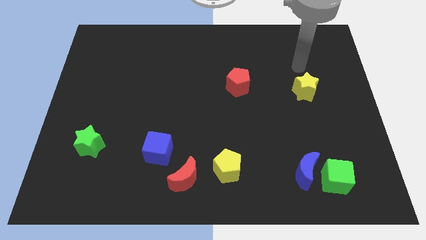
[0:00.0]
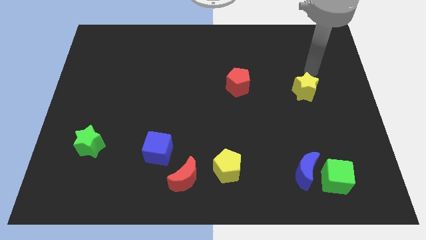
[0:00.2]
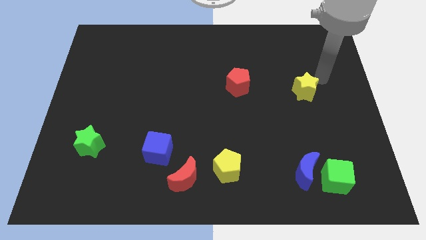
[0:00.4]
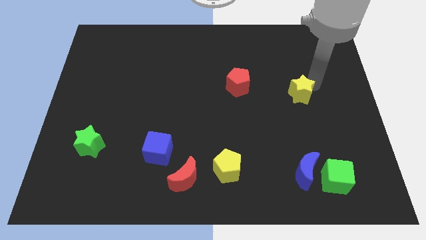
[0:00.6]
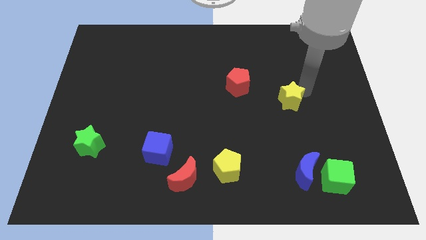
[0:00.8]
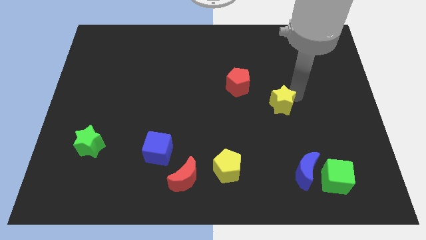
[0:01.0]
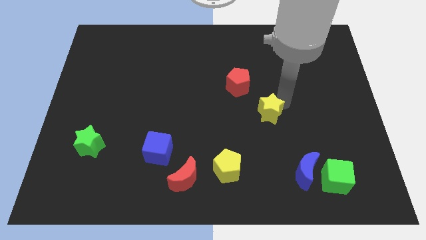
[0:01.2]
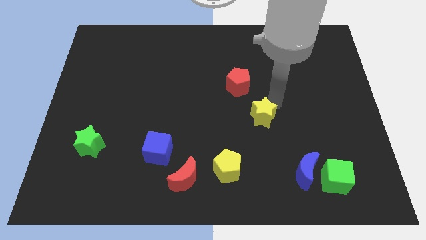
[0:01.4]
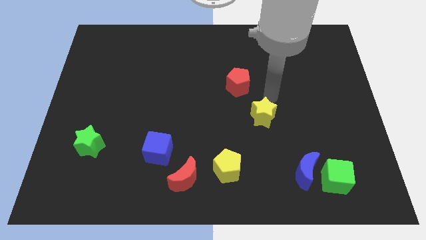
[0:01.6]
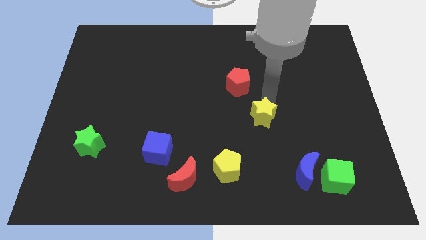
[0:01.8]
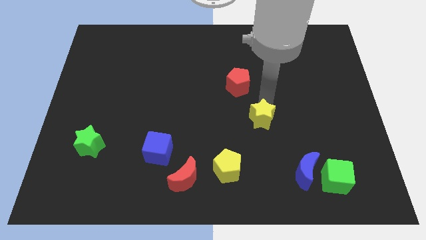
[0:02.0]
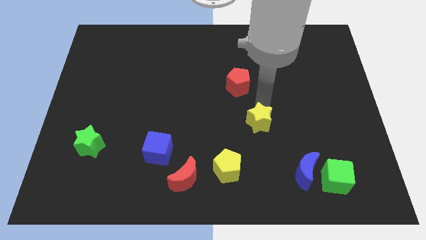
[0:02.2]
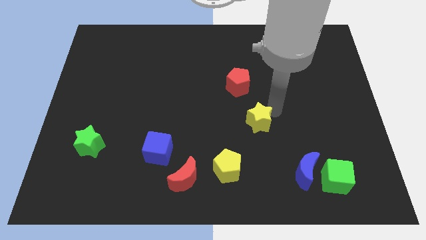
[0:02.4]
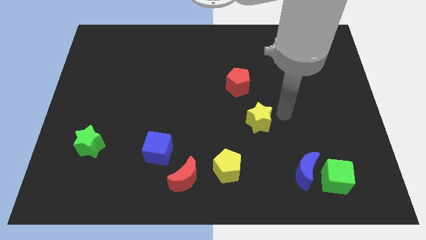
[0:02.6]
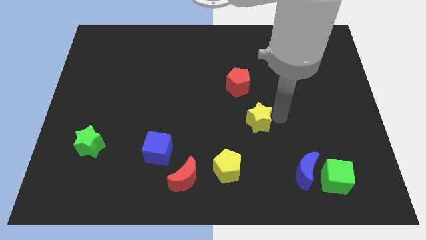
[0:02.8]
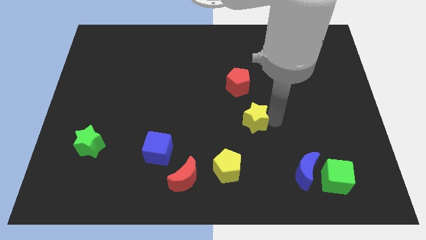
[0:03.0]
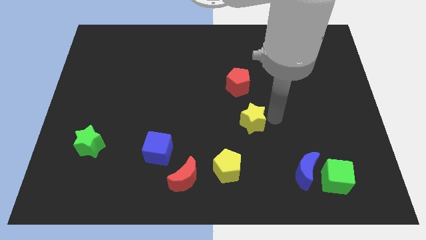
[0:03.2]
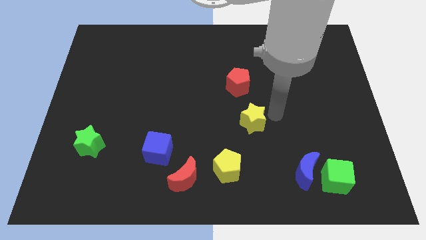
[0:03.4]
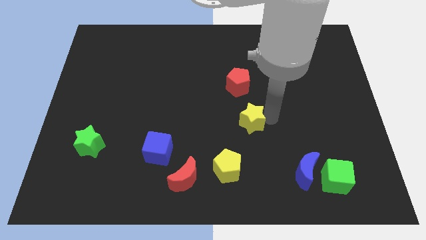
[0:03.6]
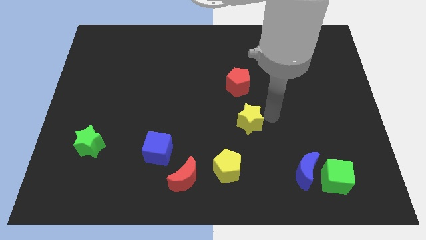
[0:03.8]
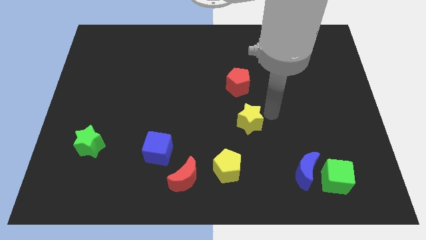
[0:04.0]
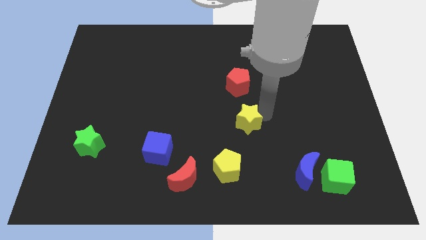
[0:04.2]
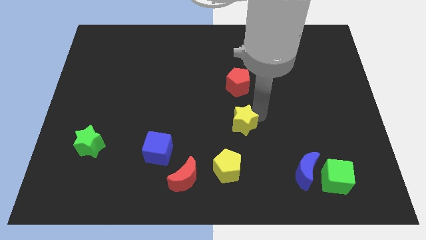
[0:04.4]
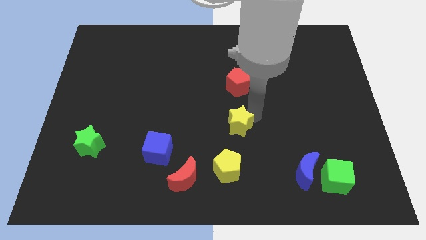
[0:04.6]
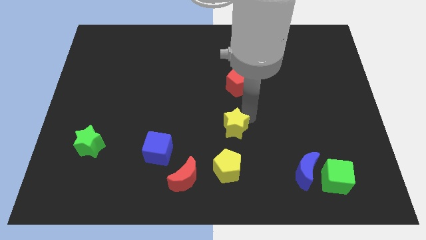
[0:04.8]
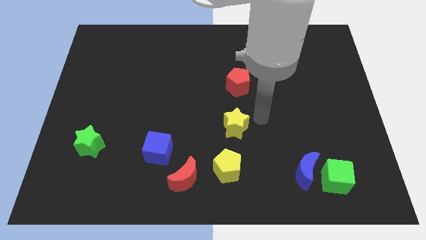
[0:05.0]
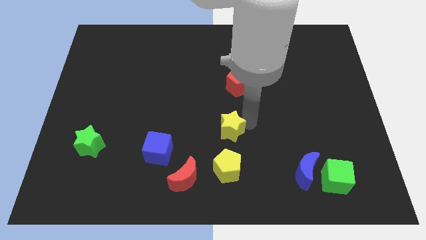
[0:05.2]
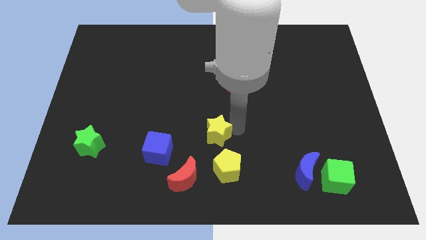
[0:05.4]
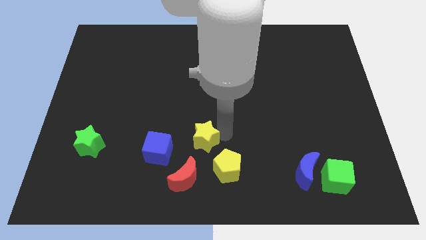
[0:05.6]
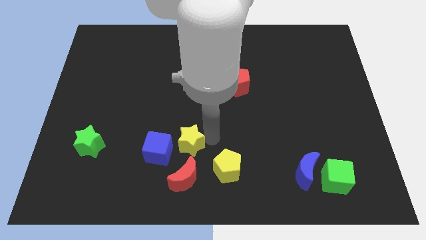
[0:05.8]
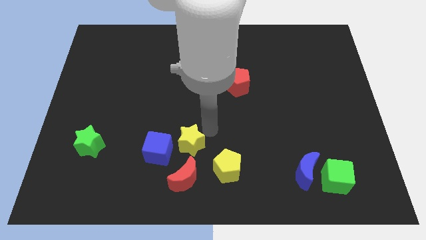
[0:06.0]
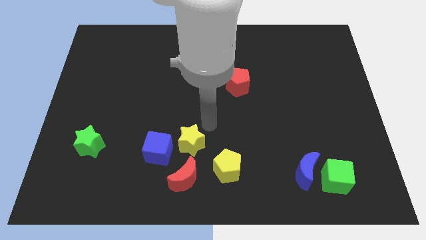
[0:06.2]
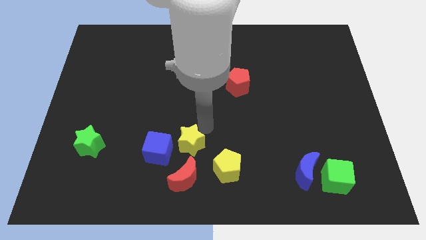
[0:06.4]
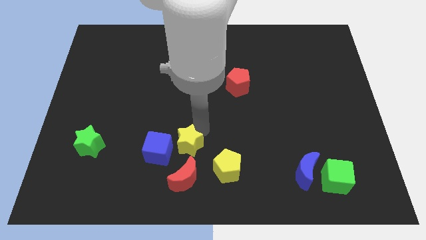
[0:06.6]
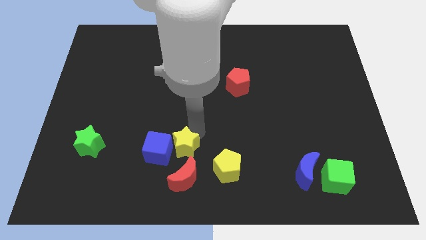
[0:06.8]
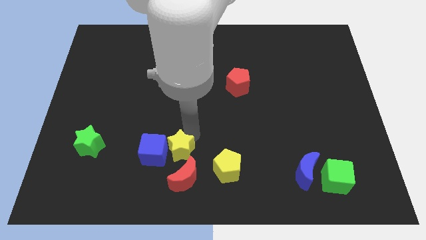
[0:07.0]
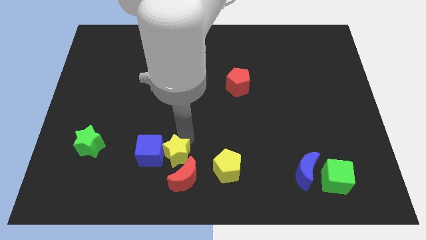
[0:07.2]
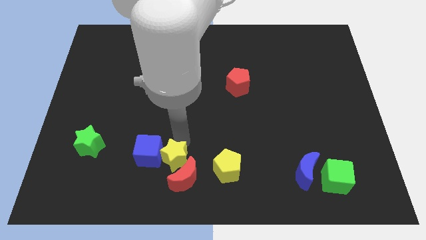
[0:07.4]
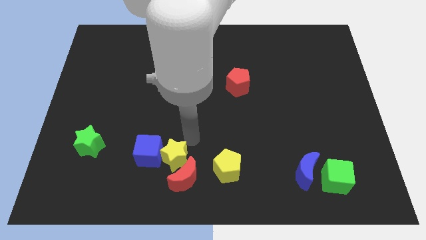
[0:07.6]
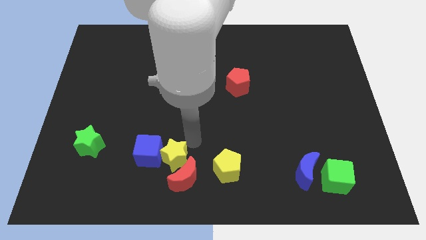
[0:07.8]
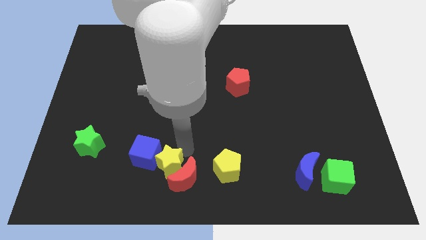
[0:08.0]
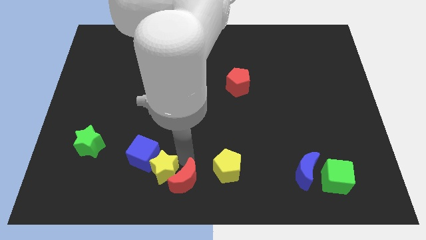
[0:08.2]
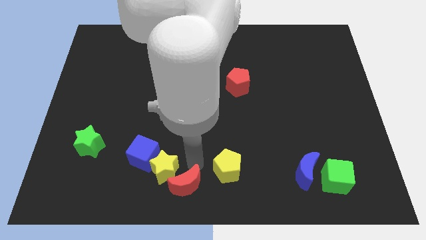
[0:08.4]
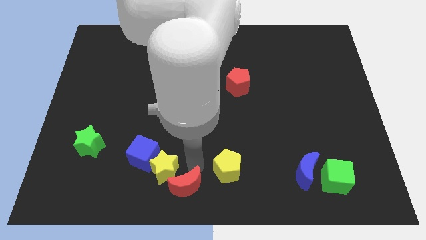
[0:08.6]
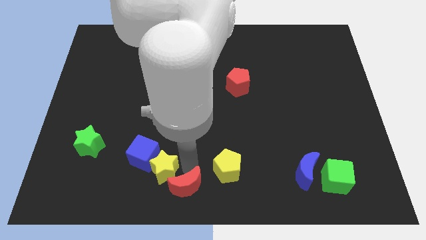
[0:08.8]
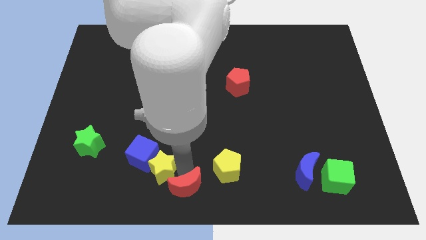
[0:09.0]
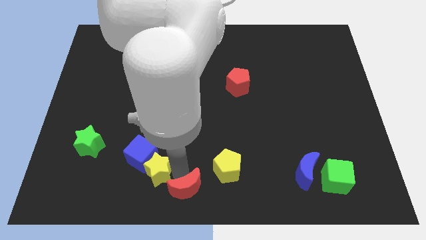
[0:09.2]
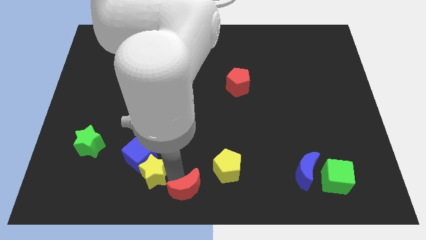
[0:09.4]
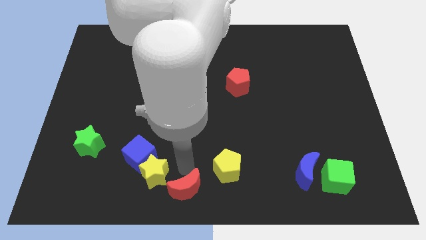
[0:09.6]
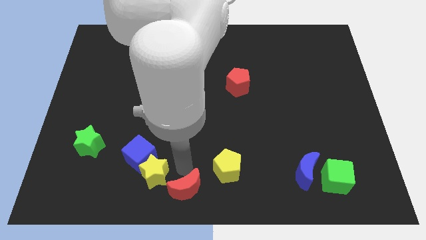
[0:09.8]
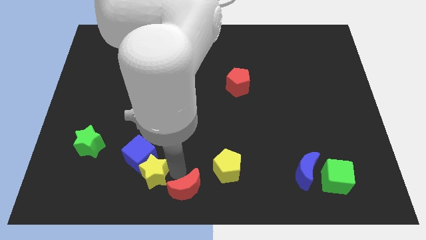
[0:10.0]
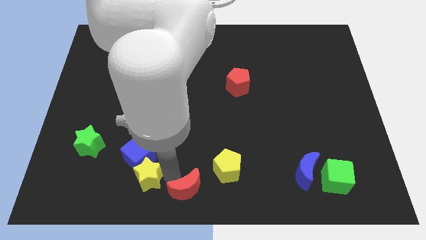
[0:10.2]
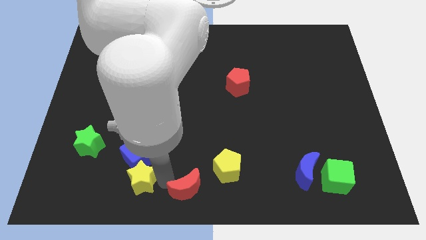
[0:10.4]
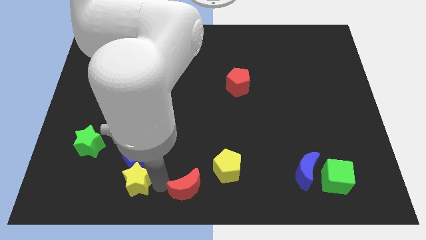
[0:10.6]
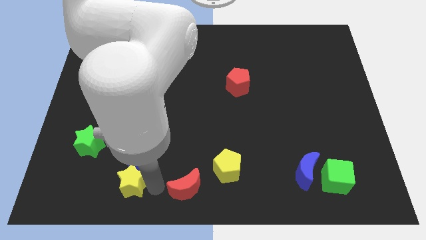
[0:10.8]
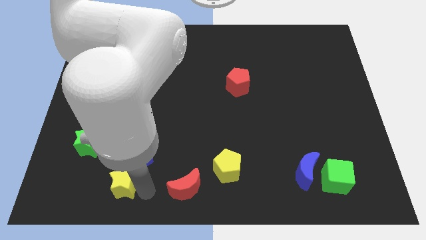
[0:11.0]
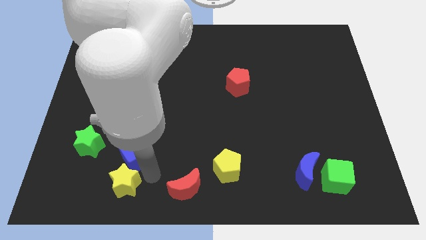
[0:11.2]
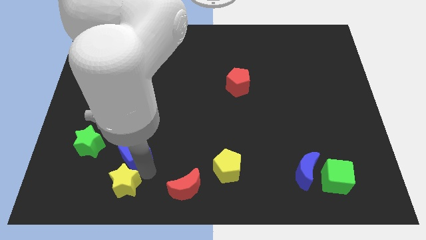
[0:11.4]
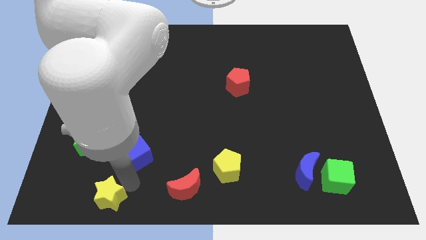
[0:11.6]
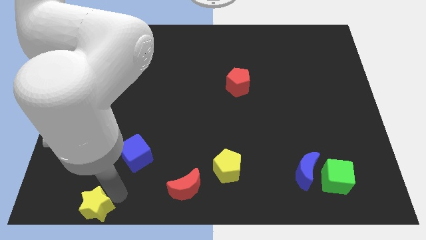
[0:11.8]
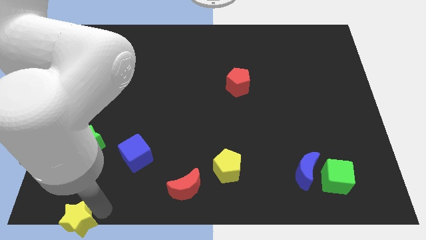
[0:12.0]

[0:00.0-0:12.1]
push the yellow star to the bottom left
